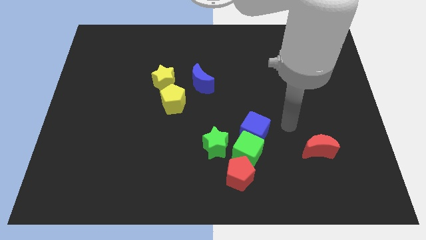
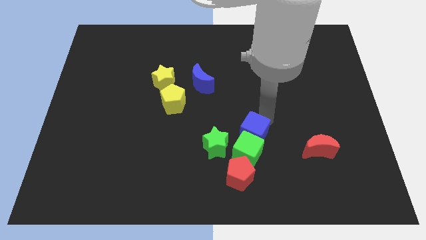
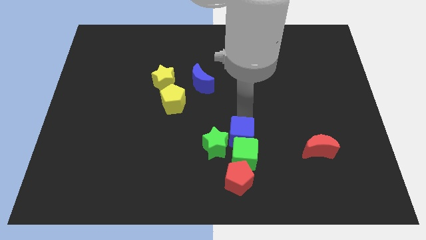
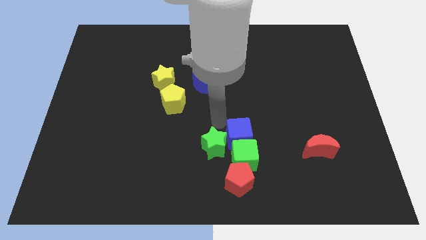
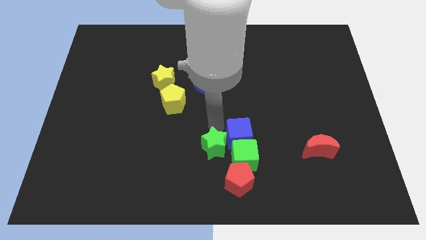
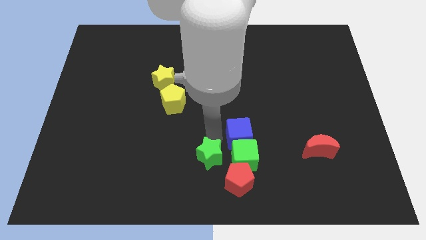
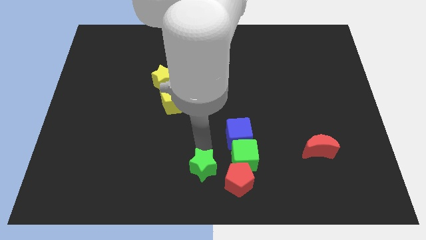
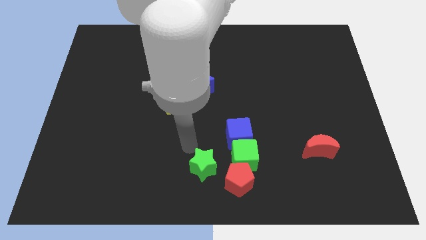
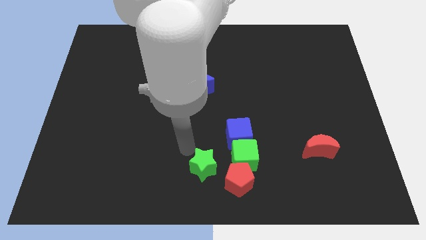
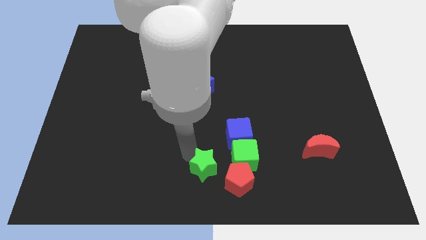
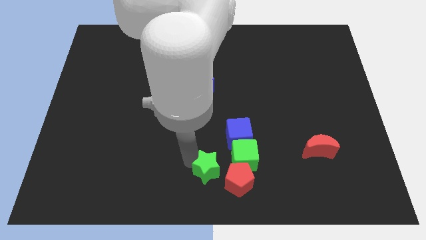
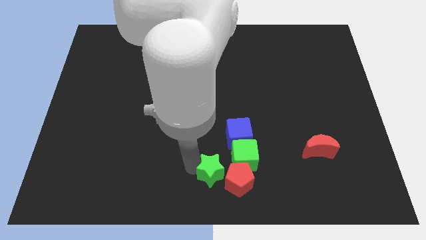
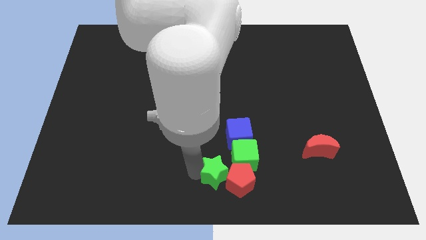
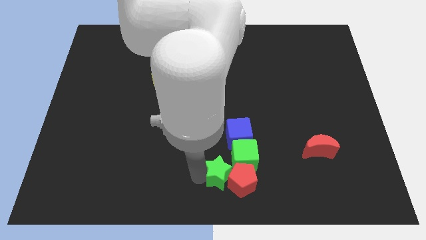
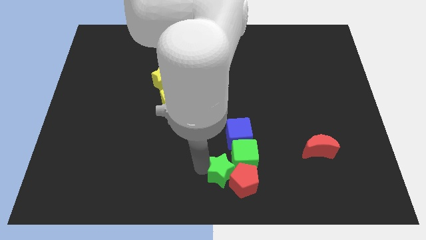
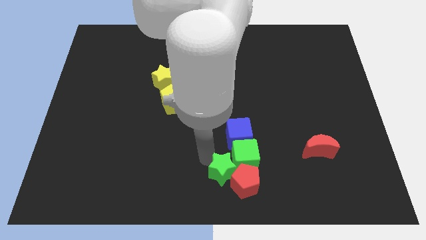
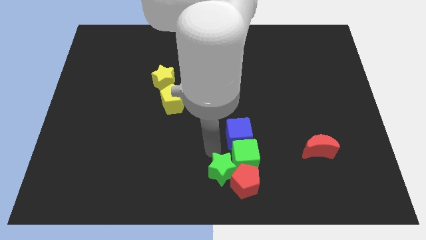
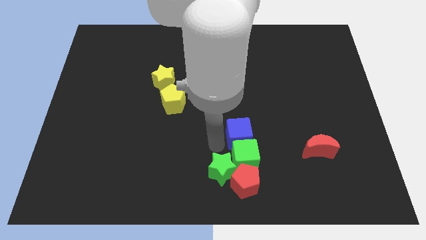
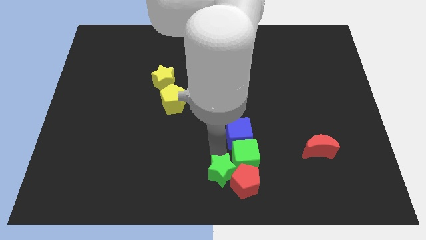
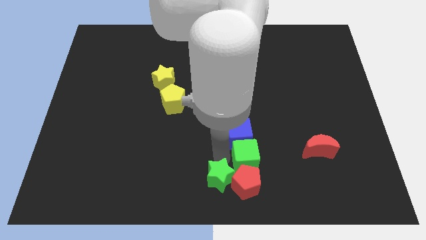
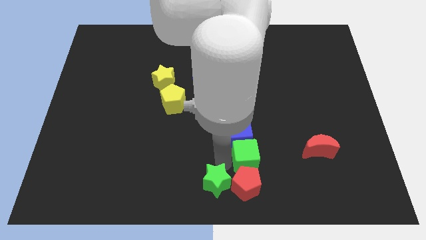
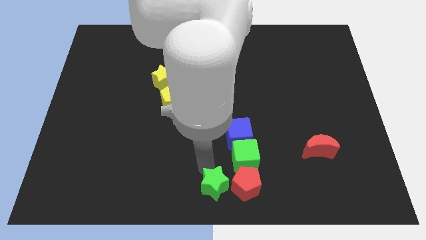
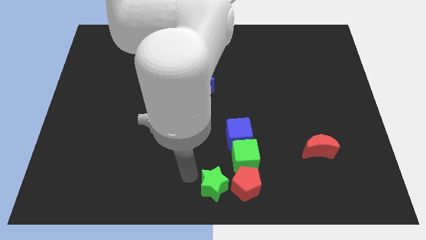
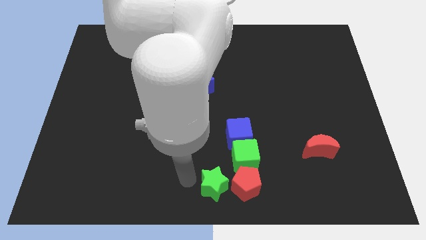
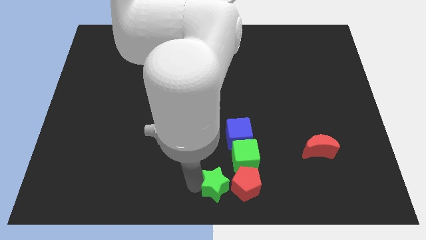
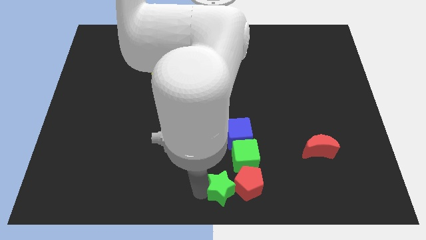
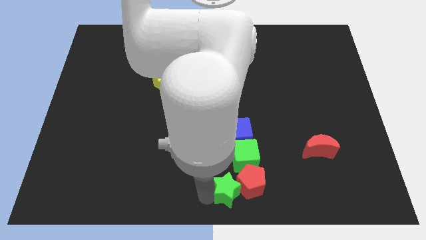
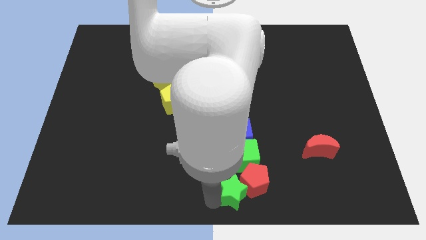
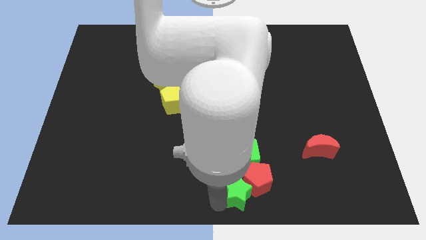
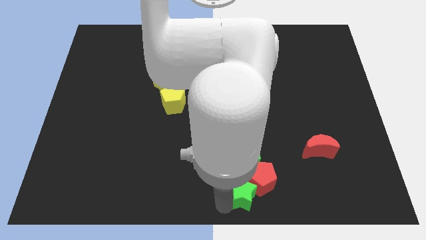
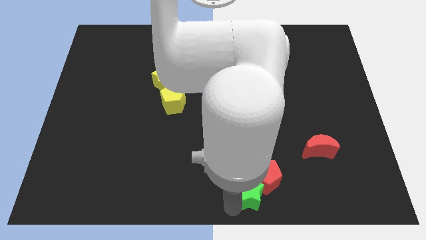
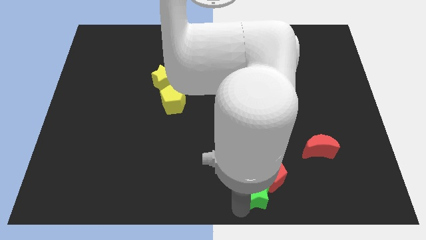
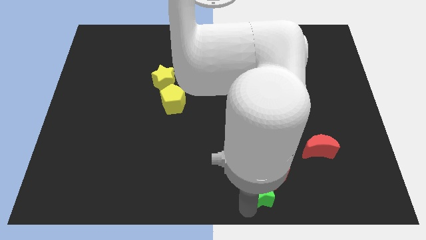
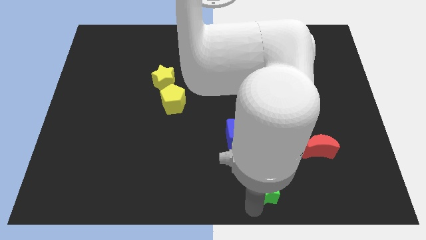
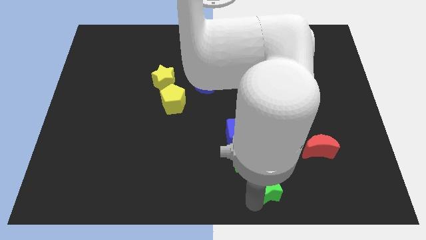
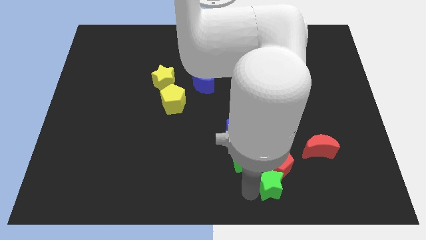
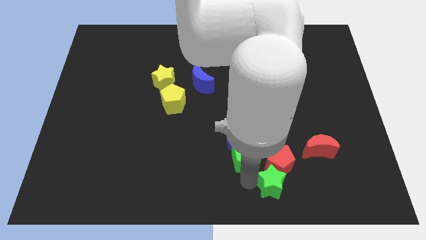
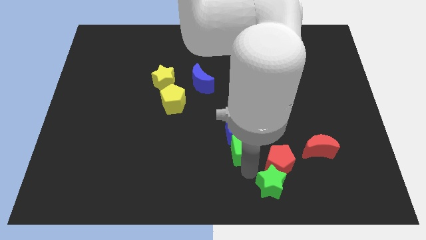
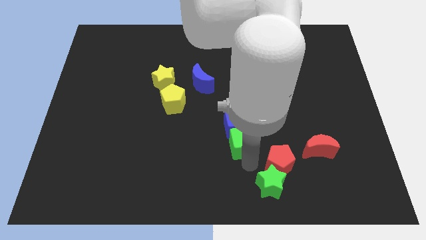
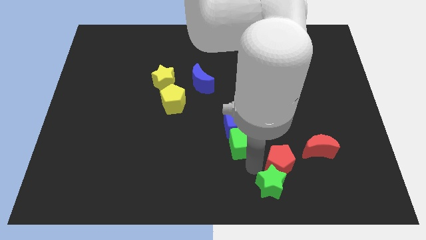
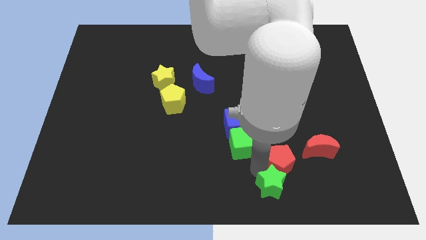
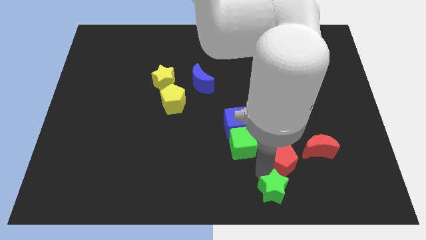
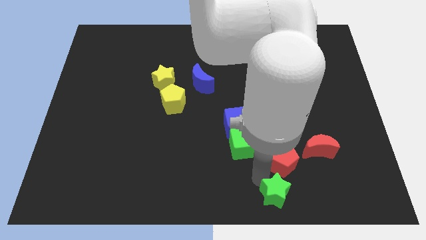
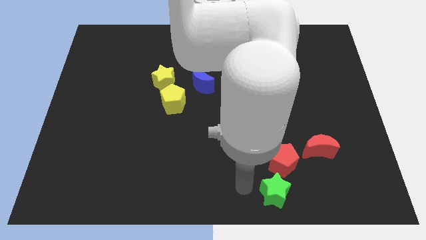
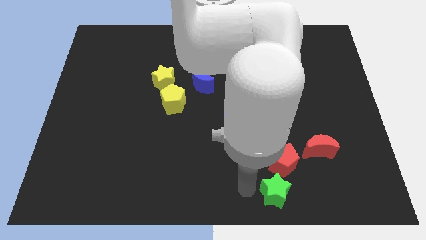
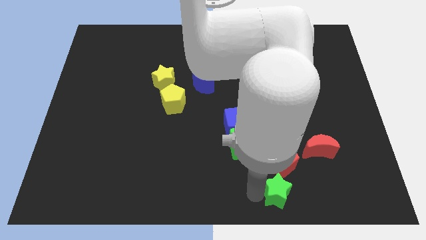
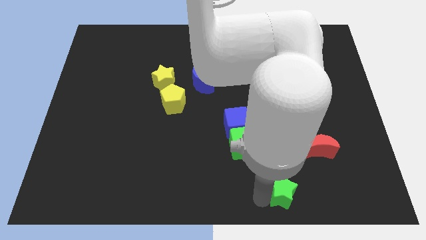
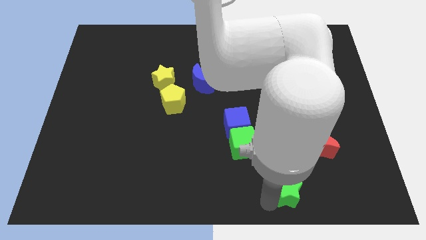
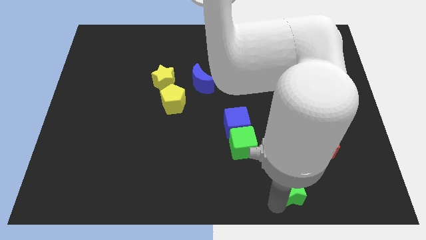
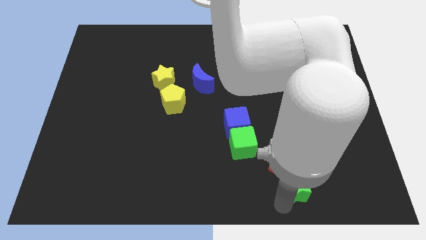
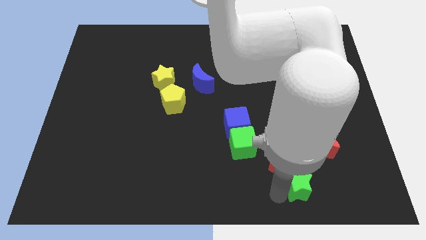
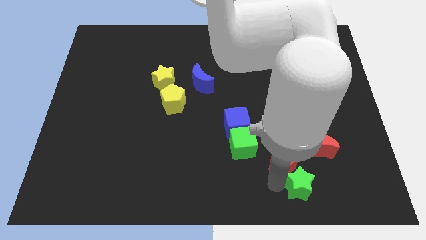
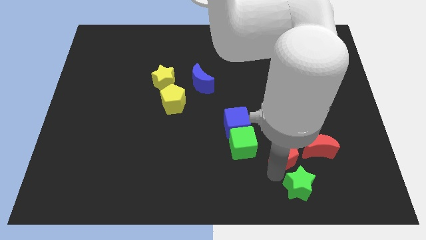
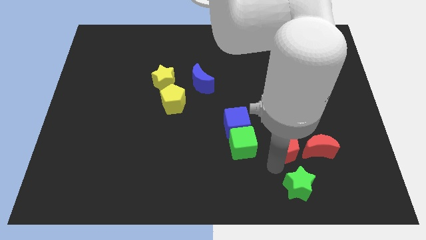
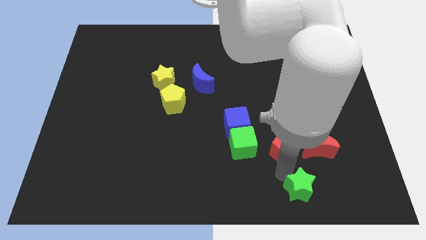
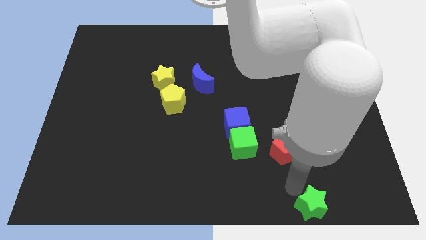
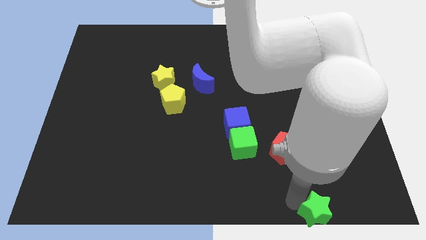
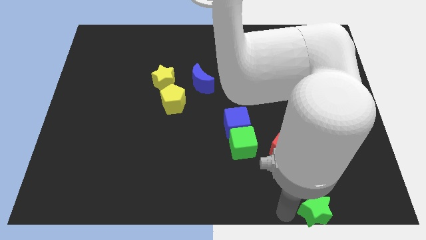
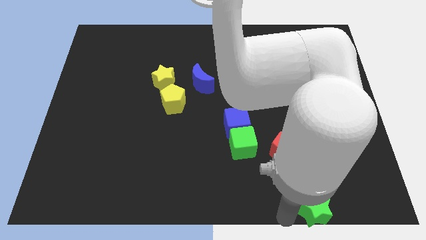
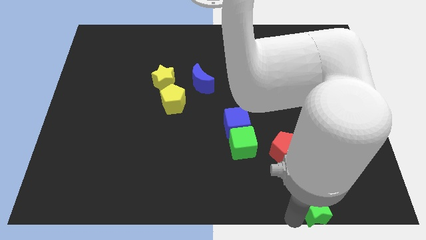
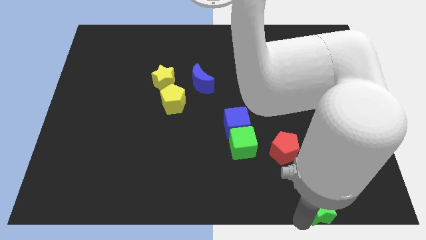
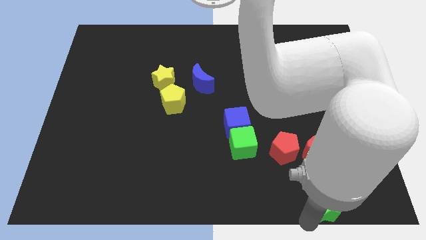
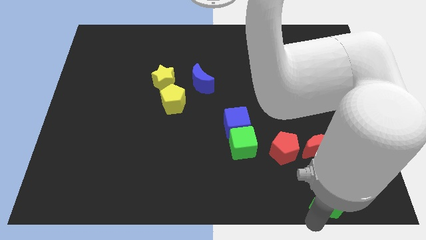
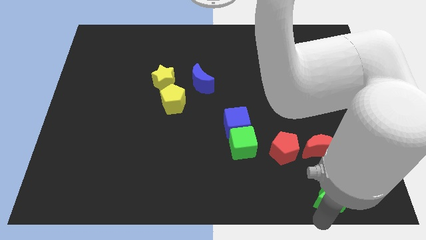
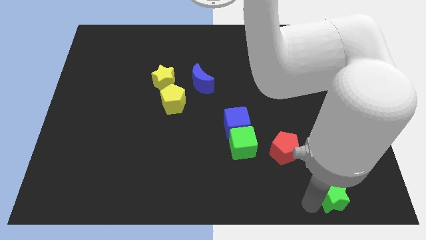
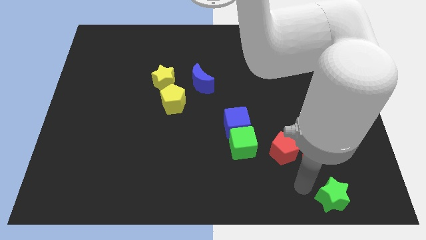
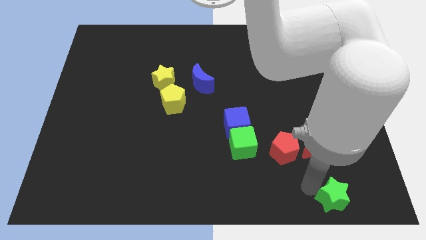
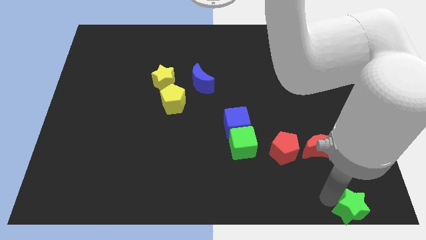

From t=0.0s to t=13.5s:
put the green star to the bottom right
